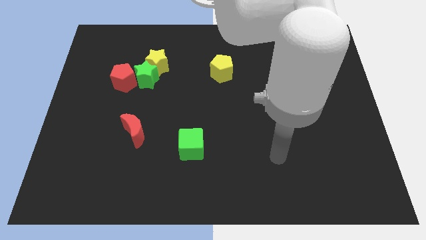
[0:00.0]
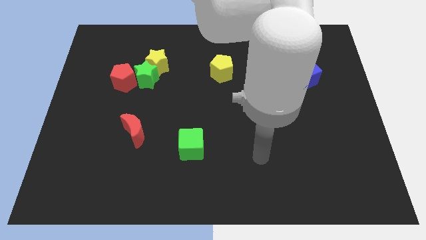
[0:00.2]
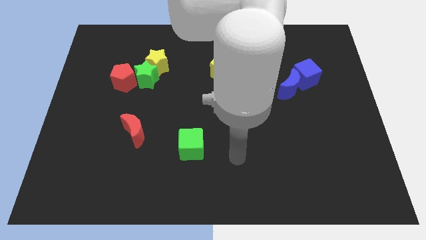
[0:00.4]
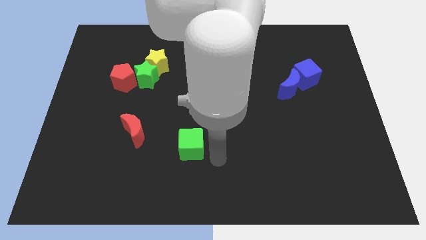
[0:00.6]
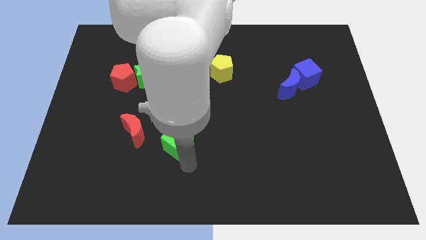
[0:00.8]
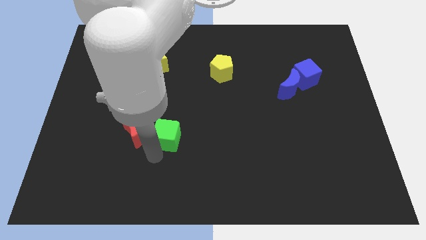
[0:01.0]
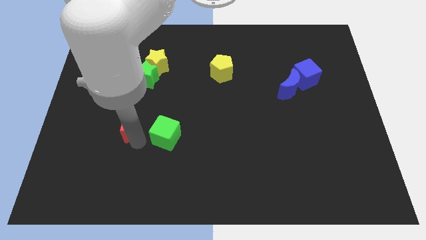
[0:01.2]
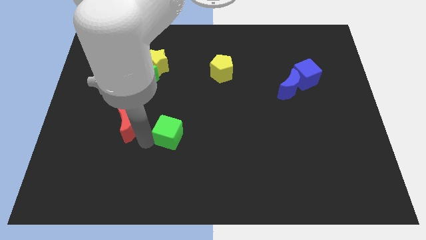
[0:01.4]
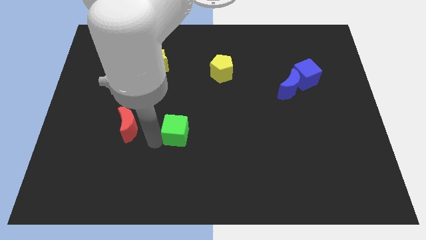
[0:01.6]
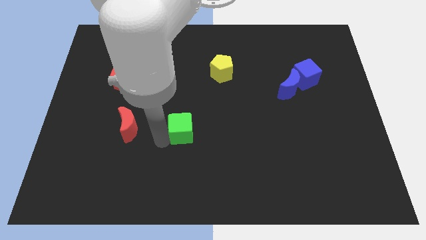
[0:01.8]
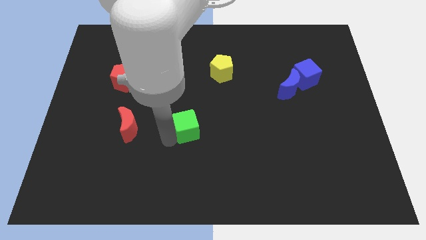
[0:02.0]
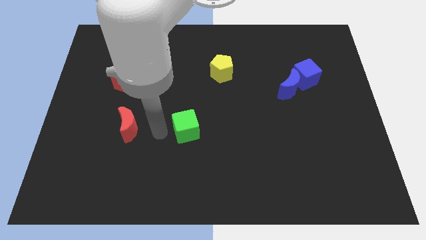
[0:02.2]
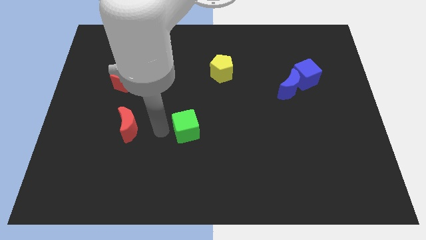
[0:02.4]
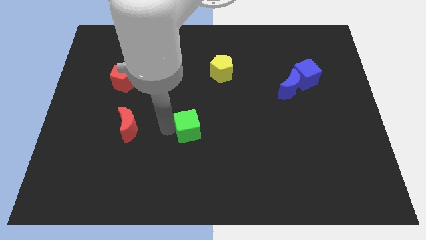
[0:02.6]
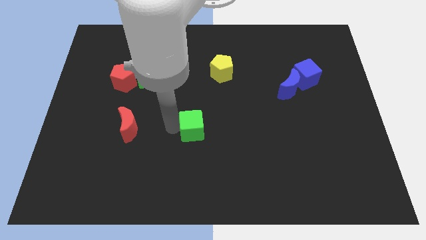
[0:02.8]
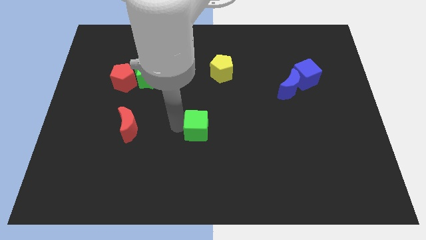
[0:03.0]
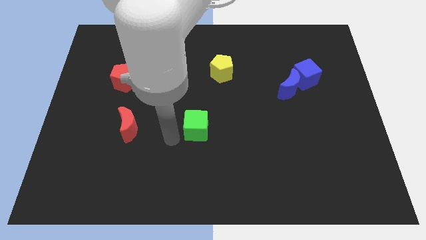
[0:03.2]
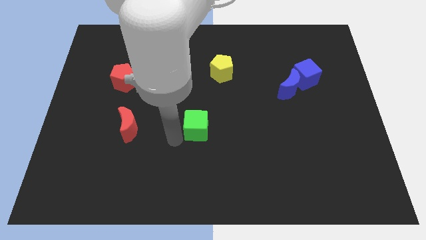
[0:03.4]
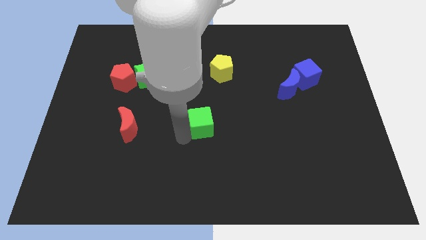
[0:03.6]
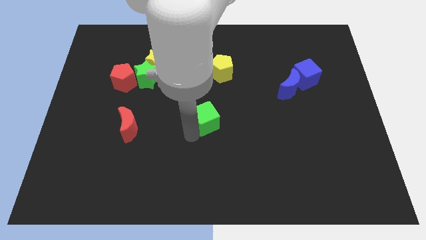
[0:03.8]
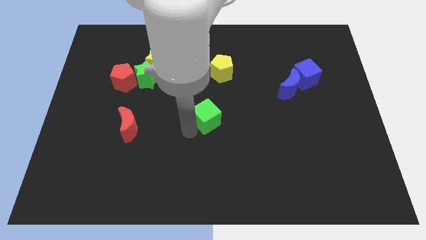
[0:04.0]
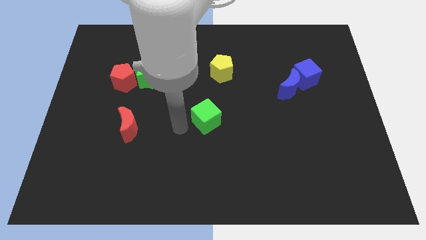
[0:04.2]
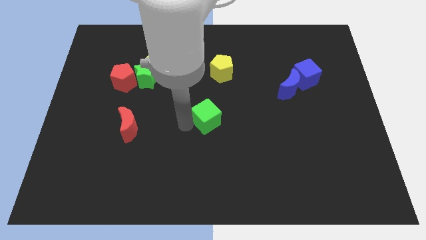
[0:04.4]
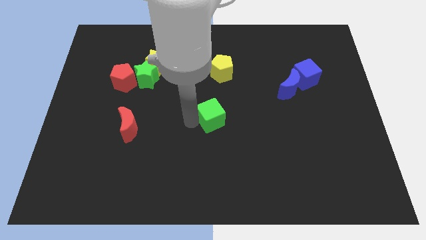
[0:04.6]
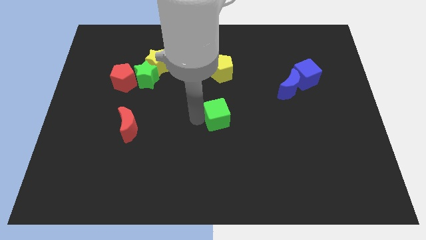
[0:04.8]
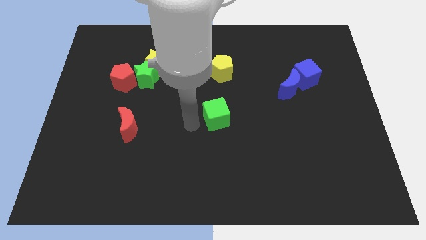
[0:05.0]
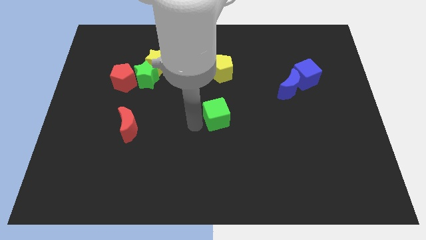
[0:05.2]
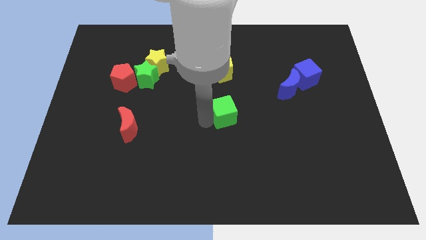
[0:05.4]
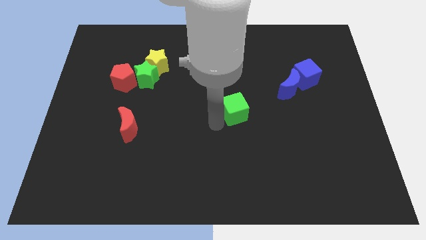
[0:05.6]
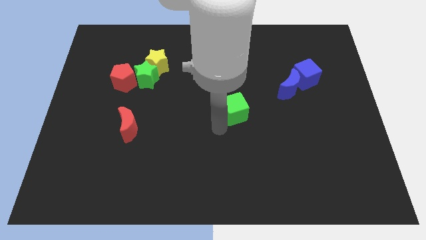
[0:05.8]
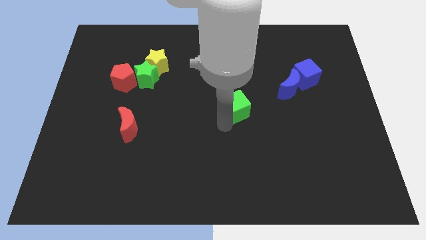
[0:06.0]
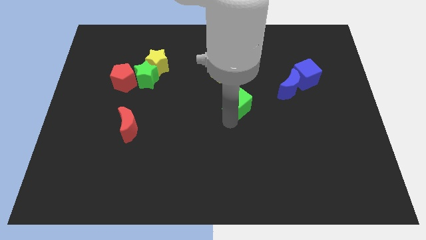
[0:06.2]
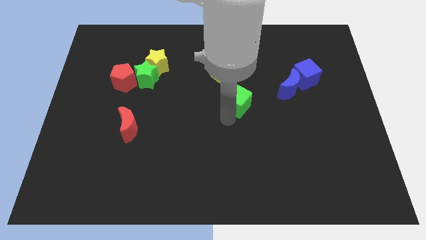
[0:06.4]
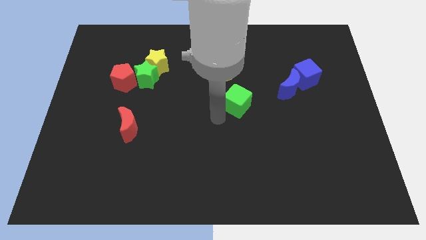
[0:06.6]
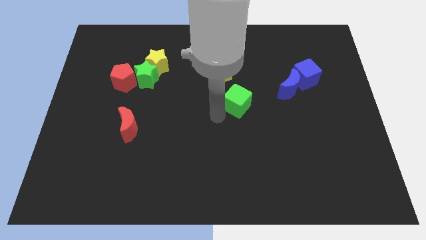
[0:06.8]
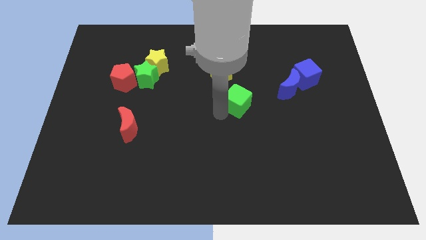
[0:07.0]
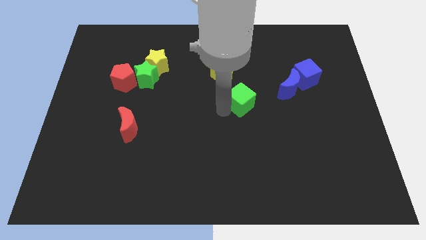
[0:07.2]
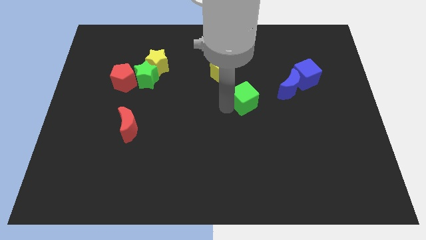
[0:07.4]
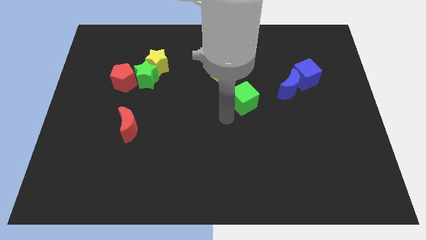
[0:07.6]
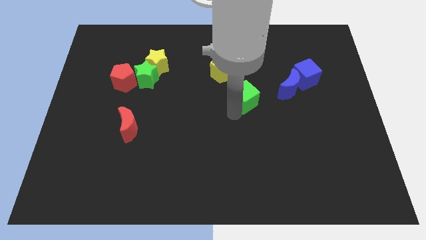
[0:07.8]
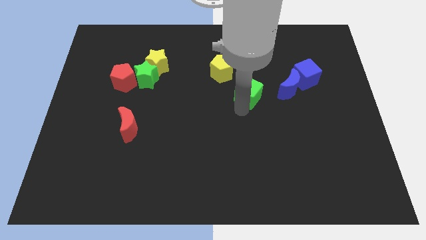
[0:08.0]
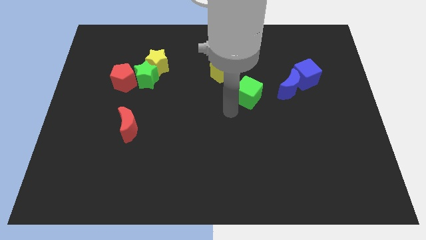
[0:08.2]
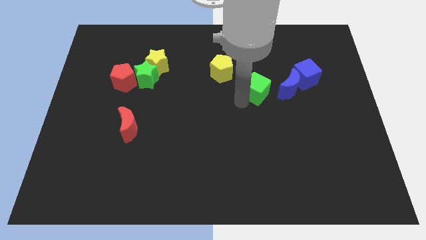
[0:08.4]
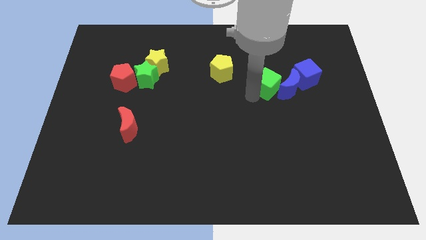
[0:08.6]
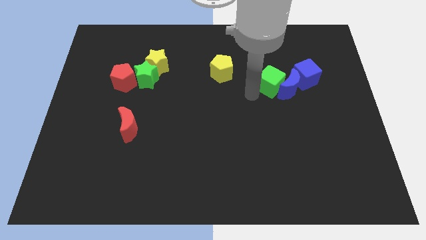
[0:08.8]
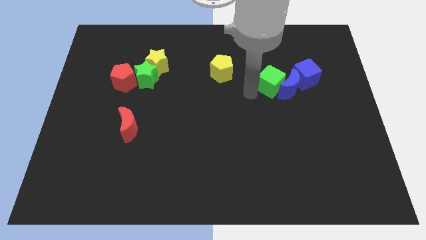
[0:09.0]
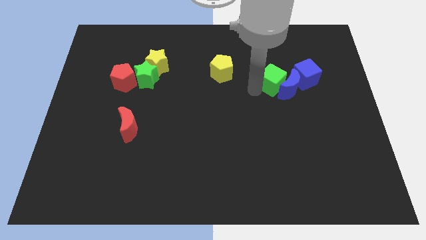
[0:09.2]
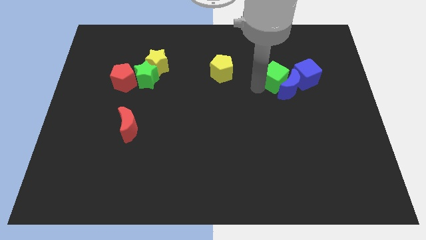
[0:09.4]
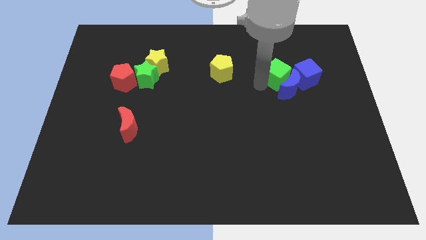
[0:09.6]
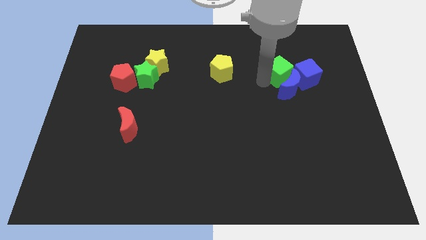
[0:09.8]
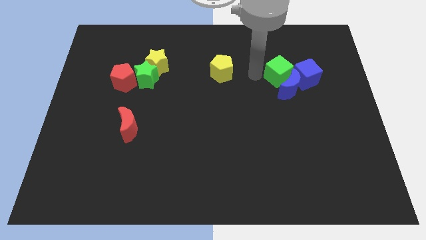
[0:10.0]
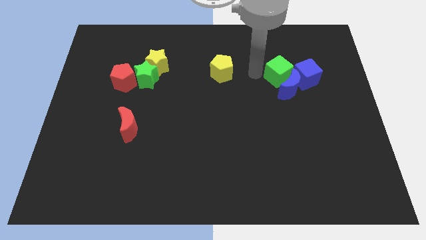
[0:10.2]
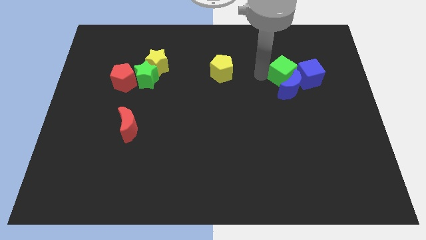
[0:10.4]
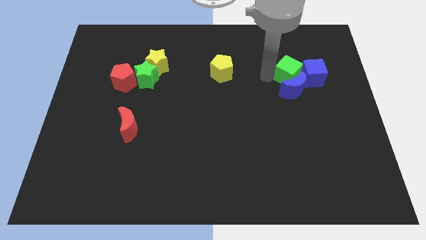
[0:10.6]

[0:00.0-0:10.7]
push the green cube close to the blue cube

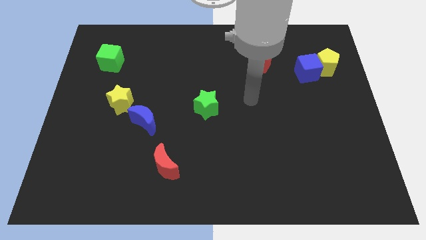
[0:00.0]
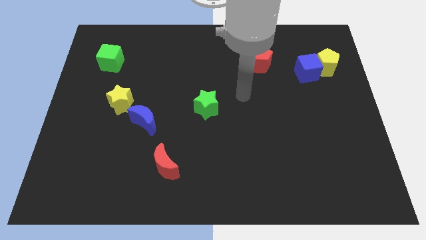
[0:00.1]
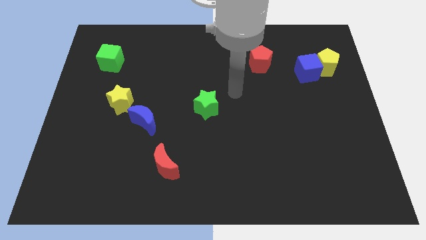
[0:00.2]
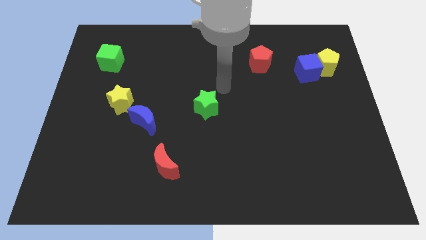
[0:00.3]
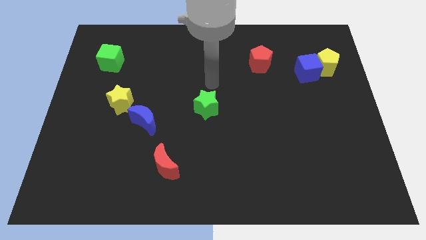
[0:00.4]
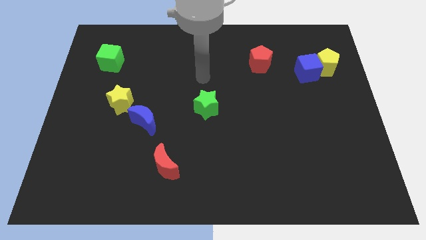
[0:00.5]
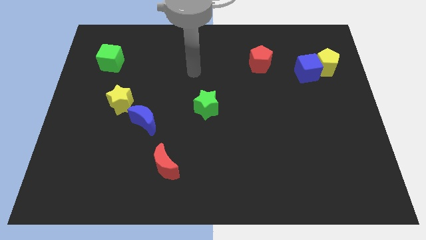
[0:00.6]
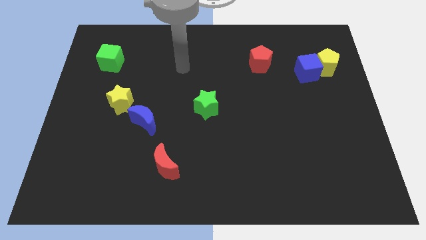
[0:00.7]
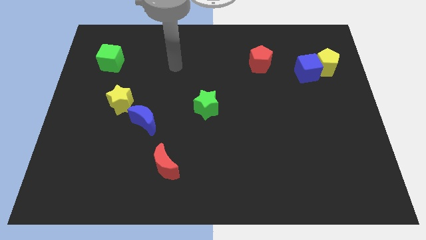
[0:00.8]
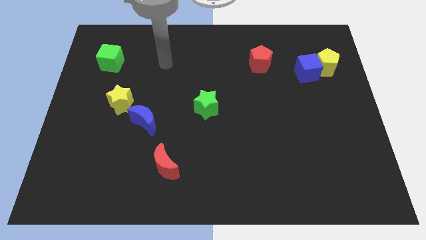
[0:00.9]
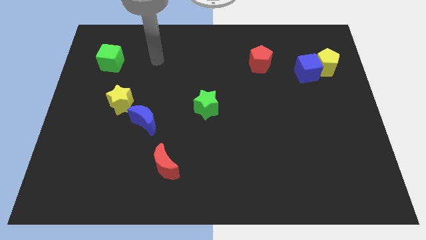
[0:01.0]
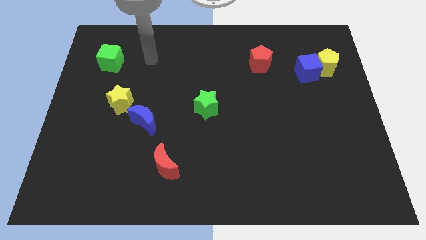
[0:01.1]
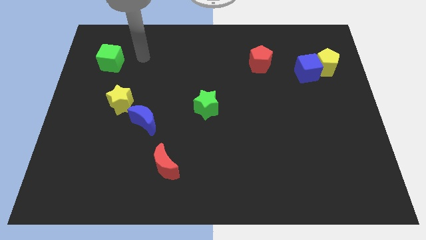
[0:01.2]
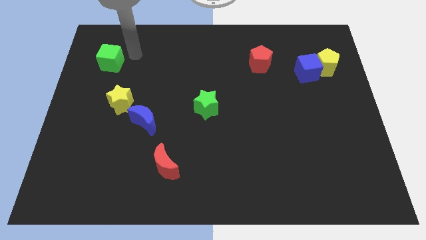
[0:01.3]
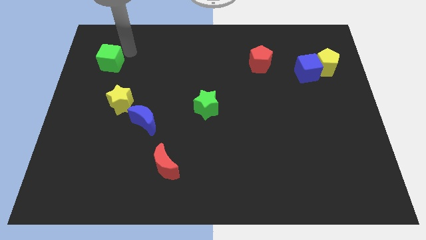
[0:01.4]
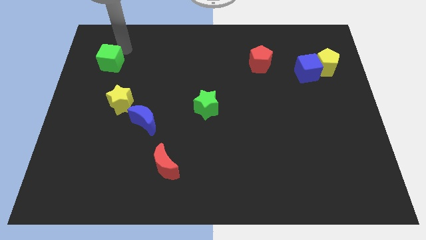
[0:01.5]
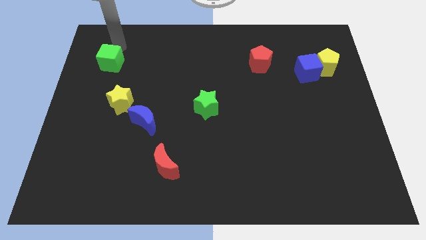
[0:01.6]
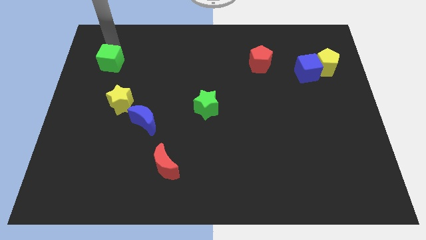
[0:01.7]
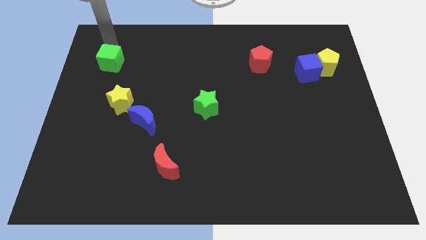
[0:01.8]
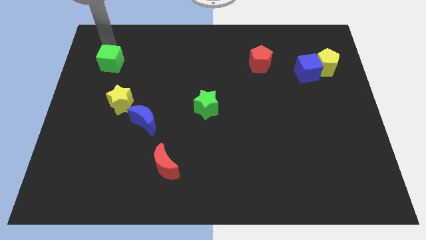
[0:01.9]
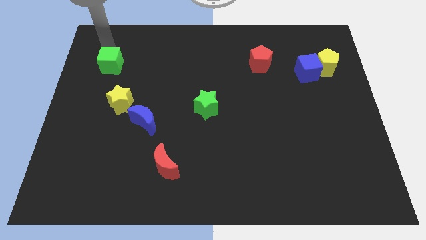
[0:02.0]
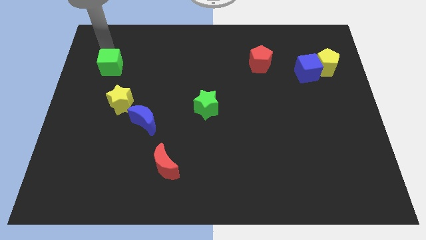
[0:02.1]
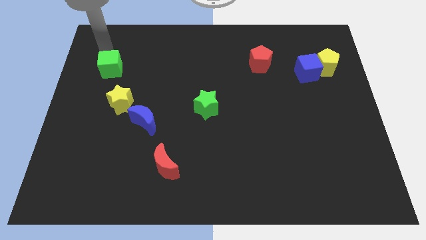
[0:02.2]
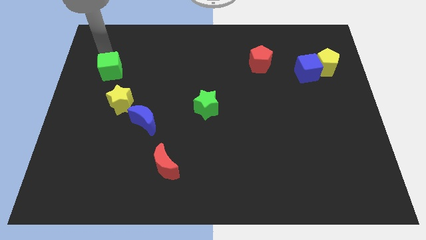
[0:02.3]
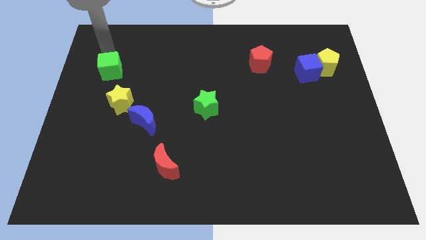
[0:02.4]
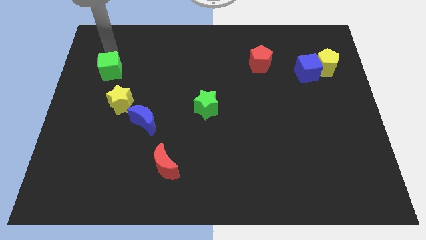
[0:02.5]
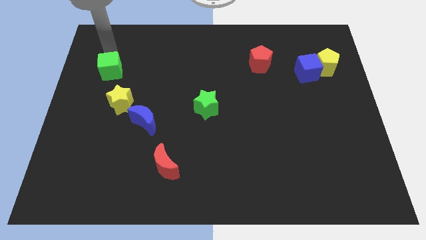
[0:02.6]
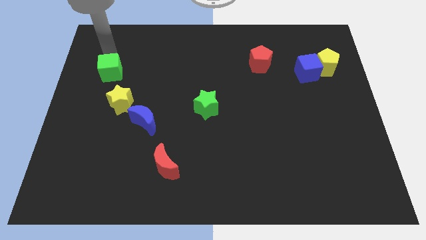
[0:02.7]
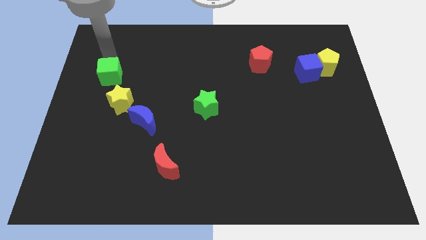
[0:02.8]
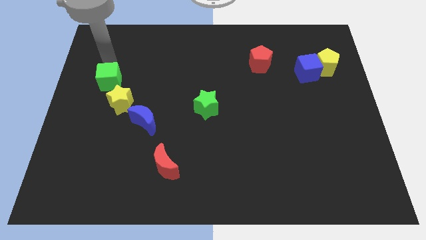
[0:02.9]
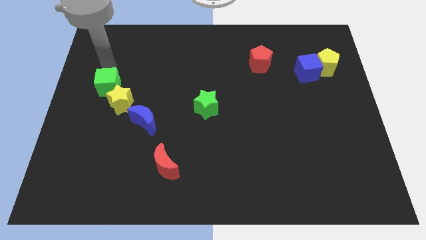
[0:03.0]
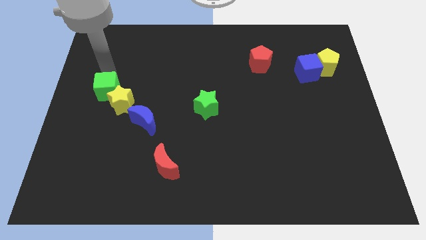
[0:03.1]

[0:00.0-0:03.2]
slide the green cube to the yellow star
